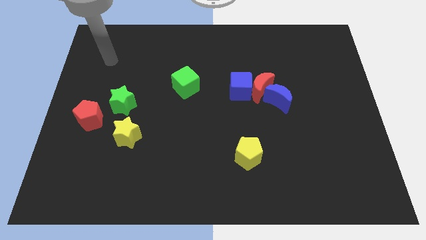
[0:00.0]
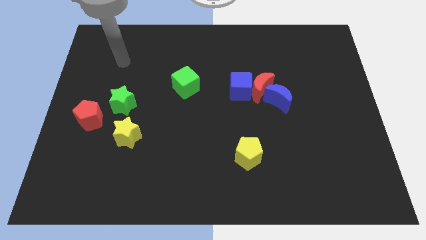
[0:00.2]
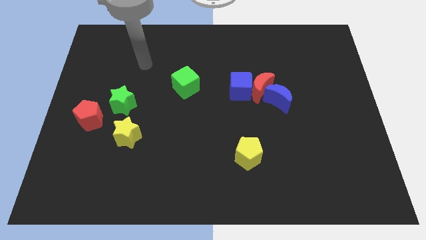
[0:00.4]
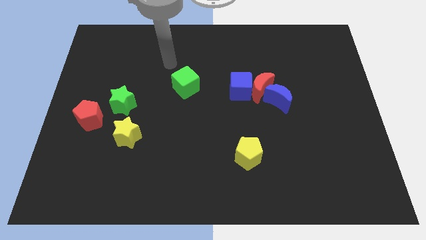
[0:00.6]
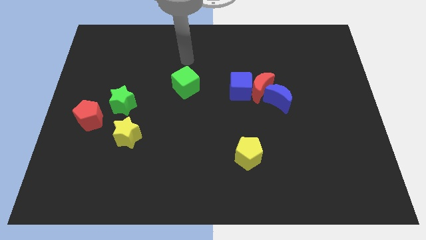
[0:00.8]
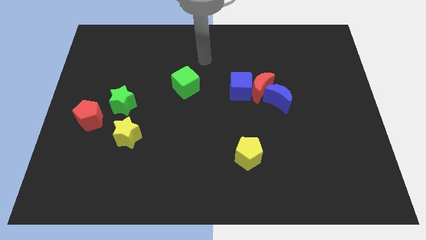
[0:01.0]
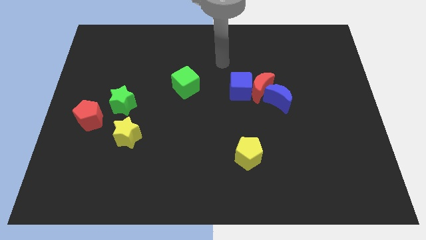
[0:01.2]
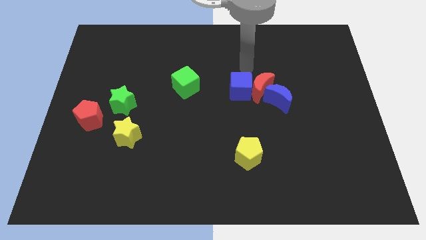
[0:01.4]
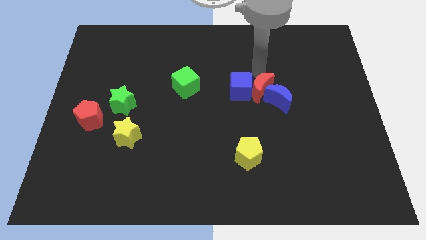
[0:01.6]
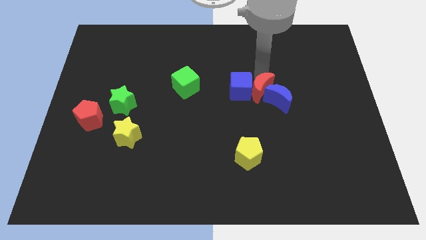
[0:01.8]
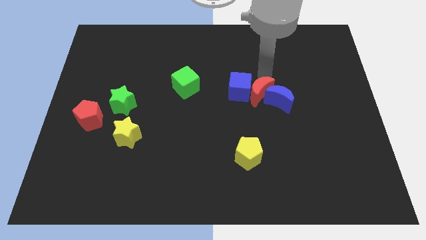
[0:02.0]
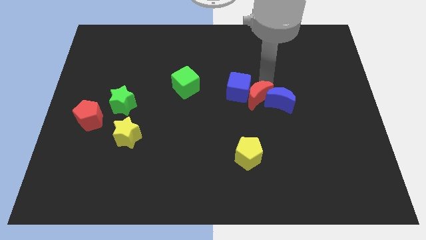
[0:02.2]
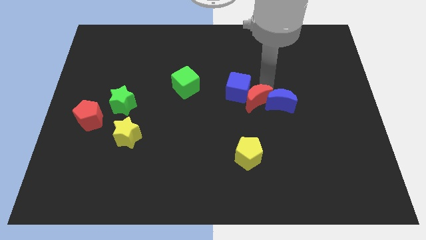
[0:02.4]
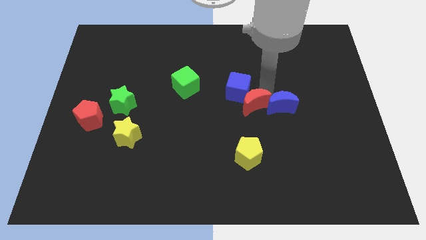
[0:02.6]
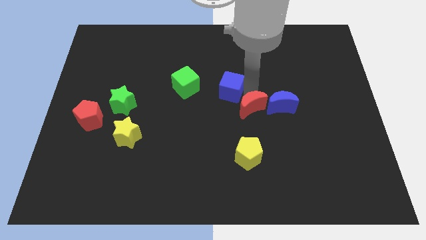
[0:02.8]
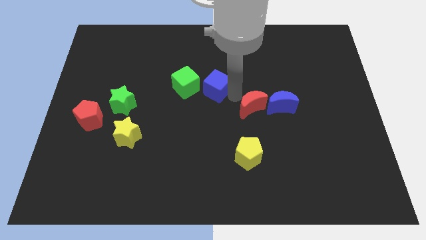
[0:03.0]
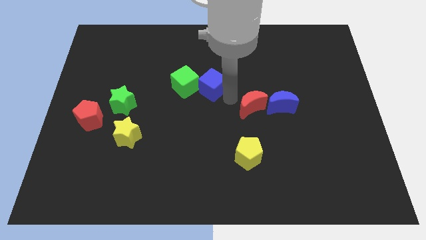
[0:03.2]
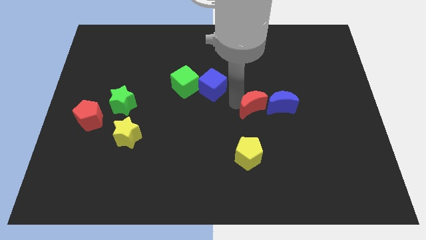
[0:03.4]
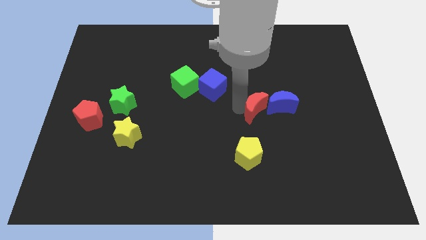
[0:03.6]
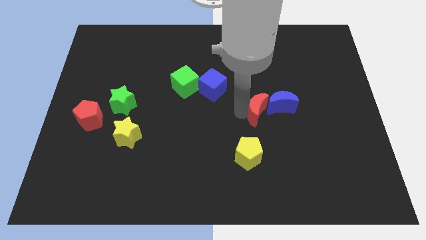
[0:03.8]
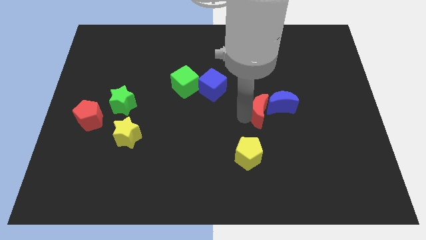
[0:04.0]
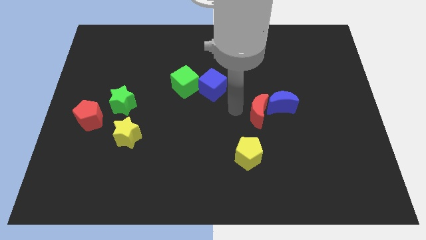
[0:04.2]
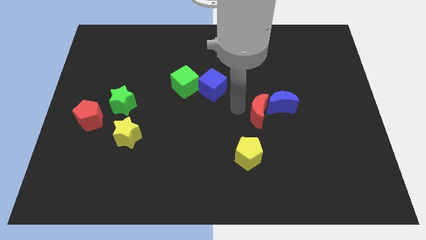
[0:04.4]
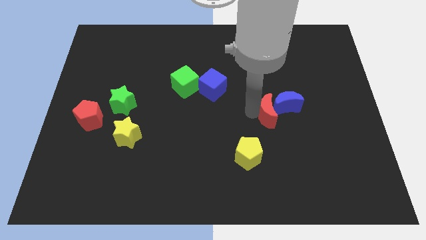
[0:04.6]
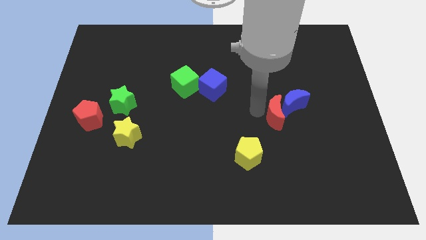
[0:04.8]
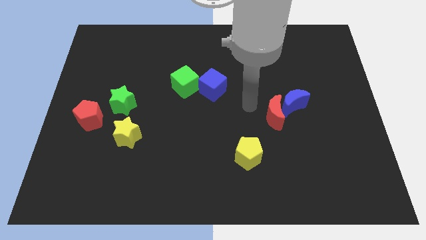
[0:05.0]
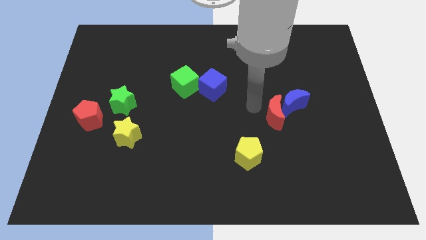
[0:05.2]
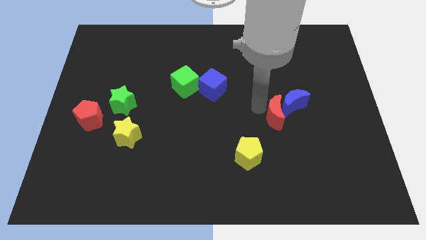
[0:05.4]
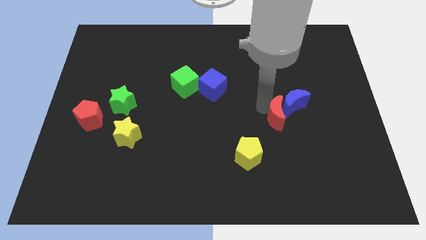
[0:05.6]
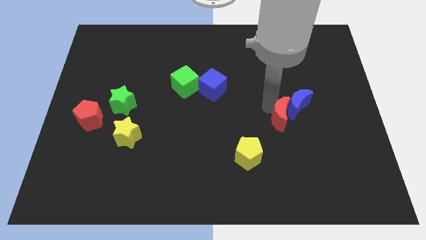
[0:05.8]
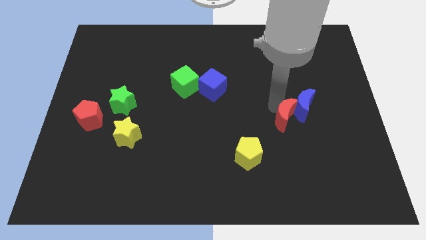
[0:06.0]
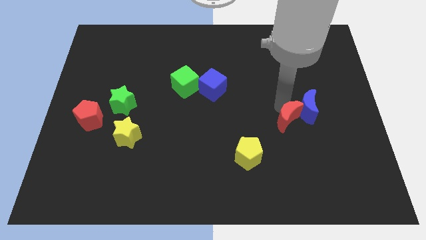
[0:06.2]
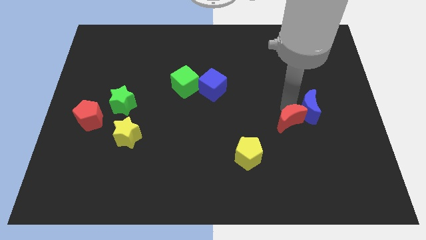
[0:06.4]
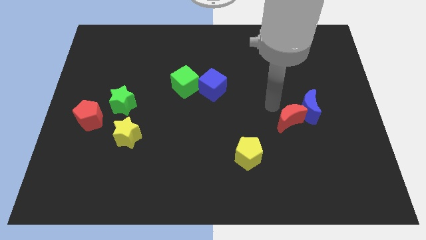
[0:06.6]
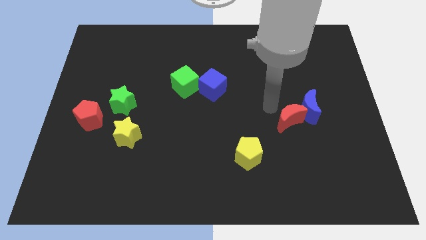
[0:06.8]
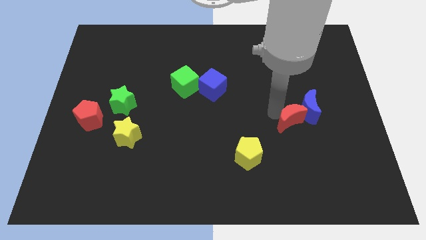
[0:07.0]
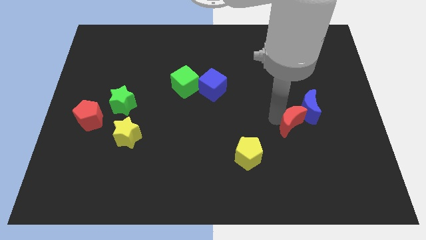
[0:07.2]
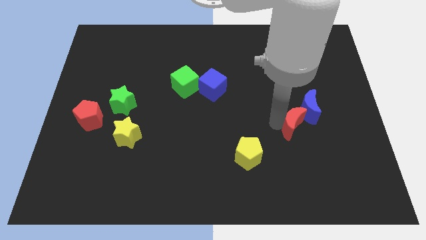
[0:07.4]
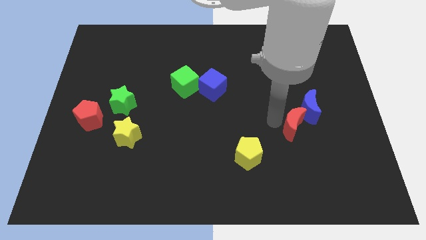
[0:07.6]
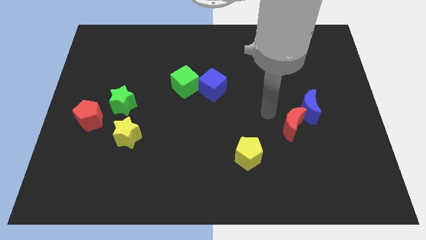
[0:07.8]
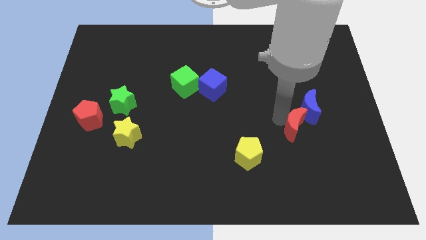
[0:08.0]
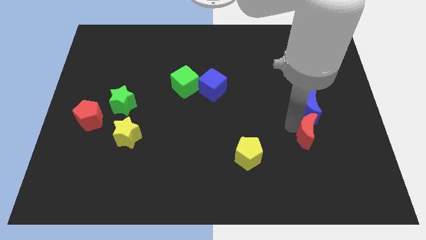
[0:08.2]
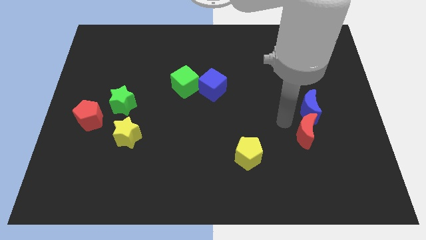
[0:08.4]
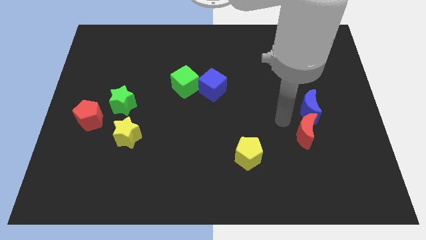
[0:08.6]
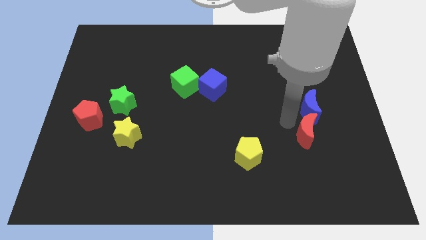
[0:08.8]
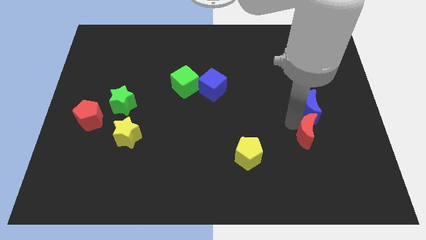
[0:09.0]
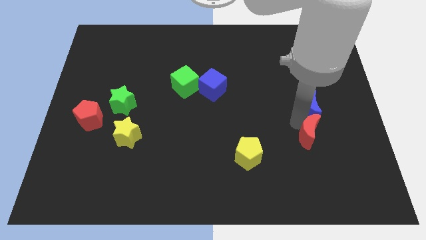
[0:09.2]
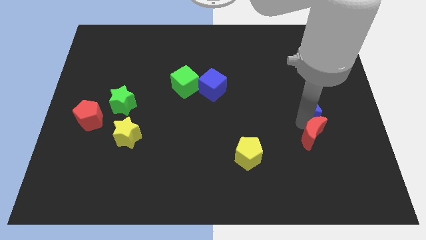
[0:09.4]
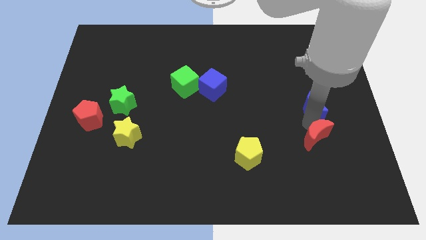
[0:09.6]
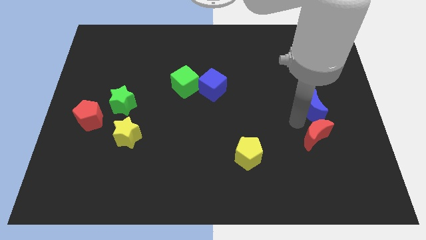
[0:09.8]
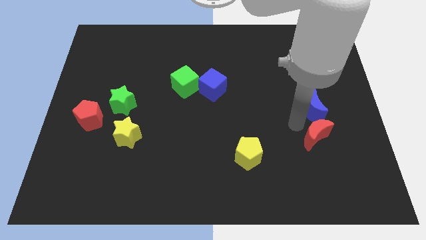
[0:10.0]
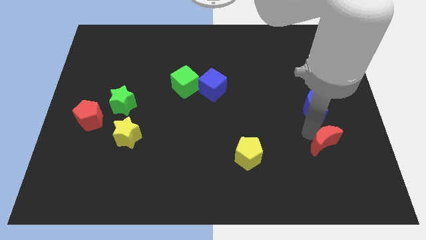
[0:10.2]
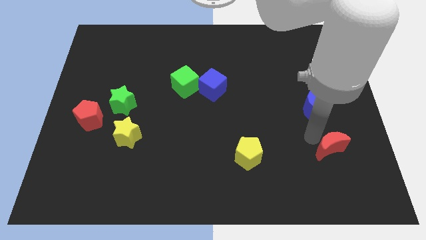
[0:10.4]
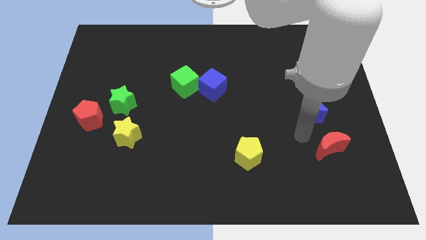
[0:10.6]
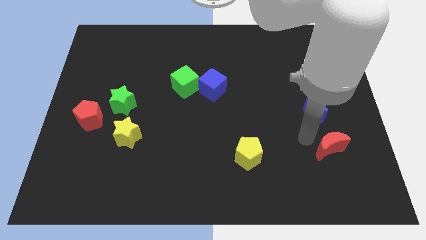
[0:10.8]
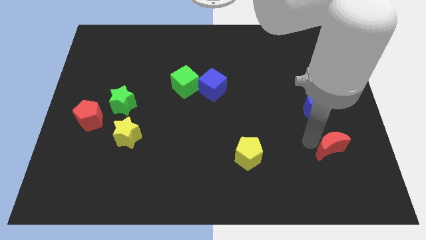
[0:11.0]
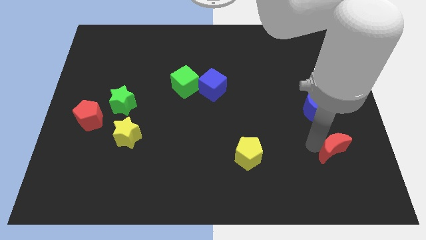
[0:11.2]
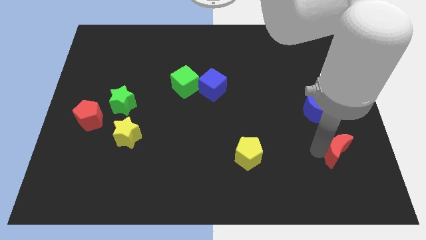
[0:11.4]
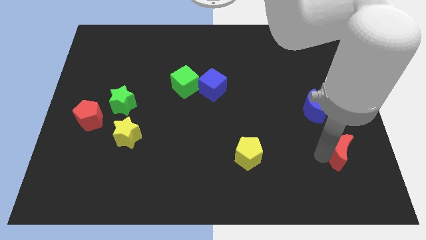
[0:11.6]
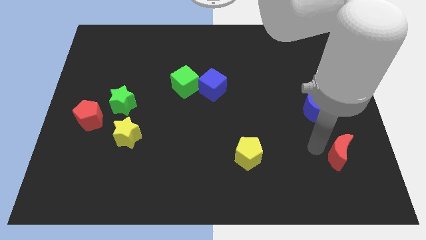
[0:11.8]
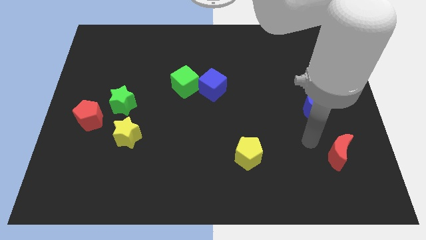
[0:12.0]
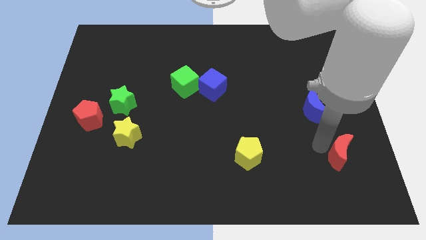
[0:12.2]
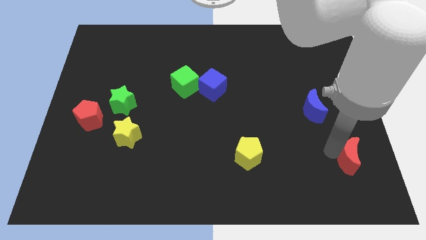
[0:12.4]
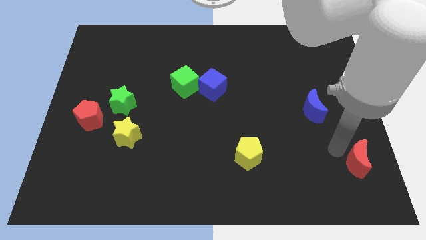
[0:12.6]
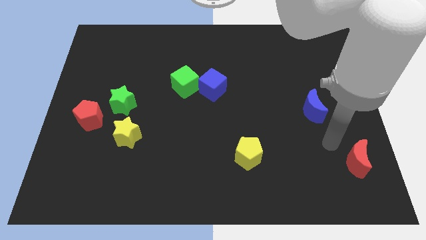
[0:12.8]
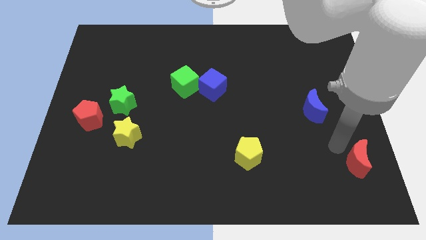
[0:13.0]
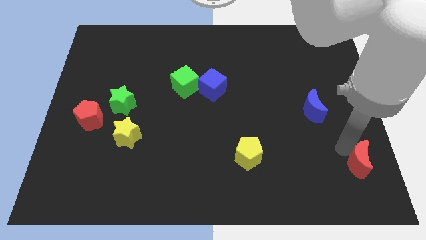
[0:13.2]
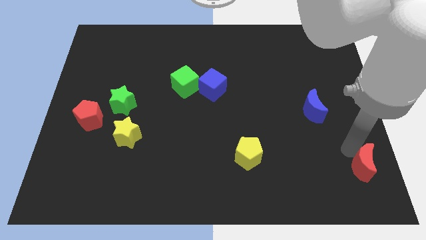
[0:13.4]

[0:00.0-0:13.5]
push the red moon to the bottom right of the board
